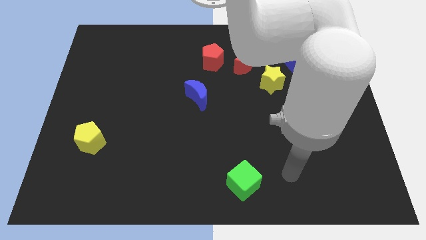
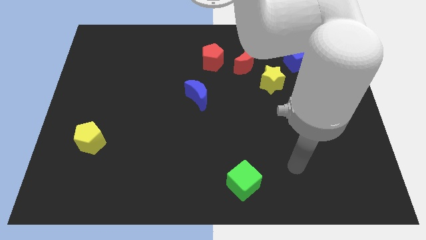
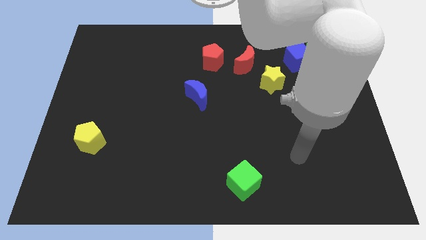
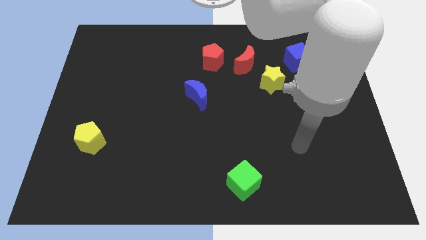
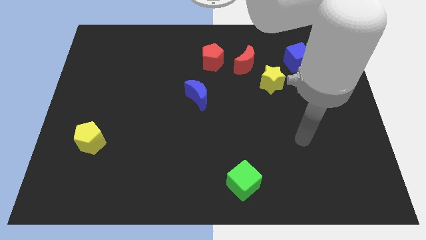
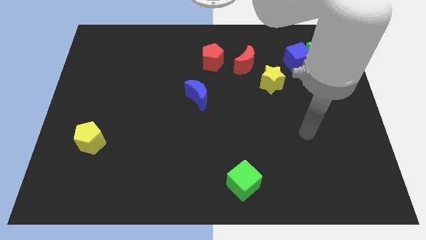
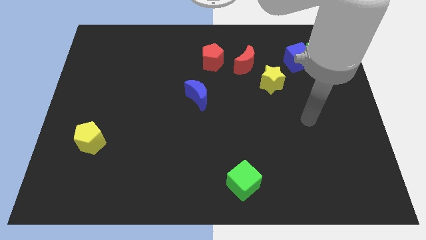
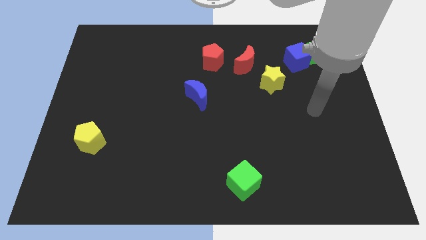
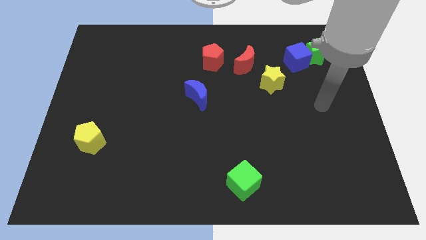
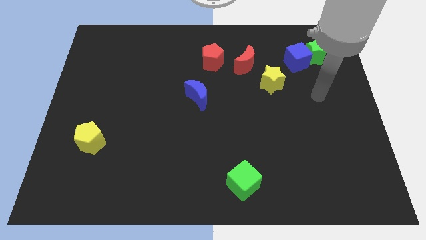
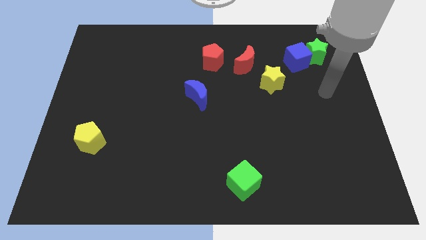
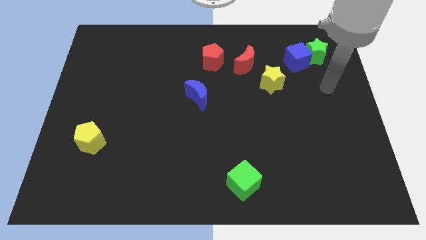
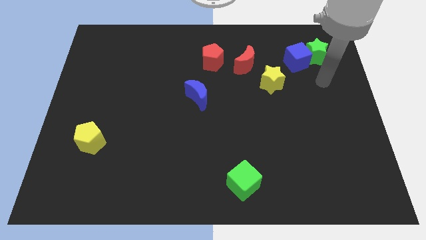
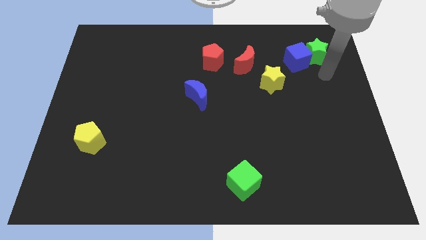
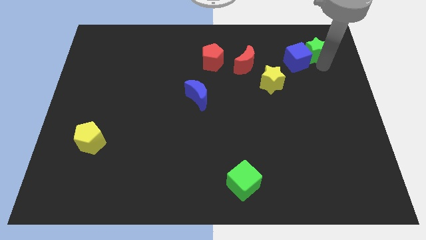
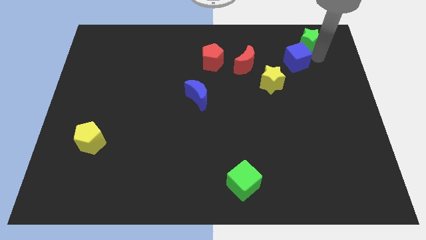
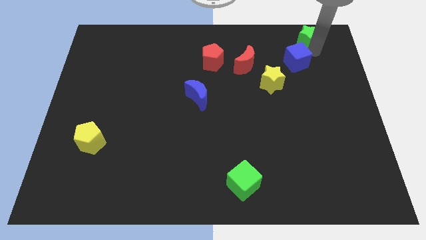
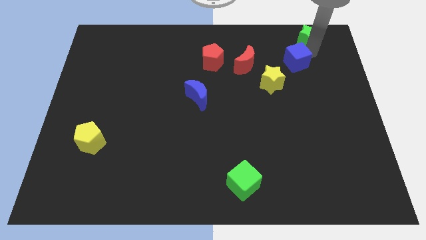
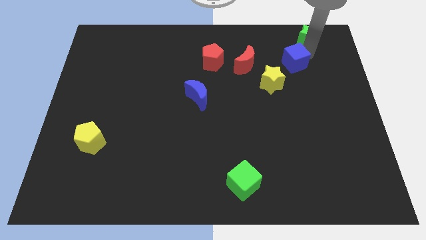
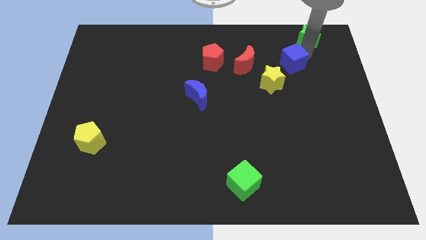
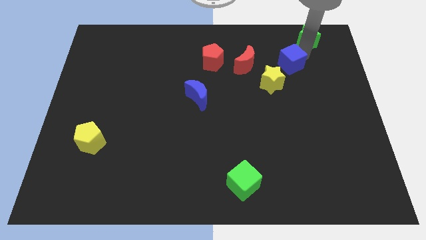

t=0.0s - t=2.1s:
separate the blue cube from the green star

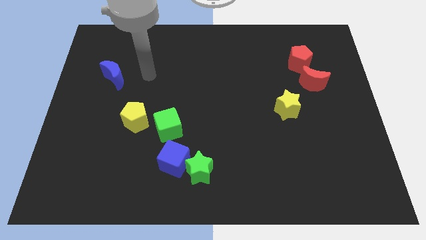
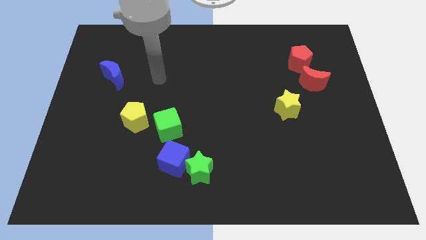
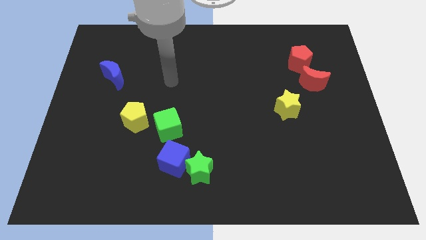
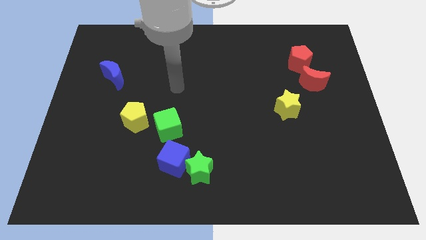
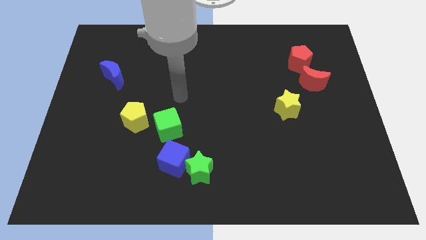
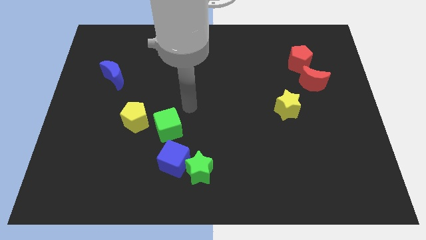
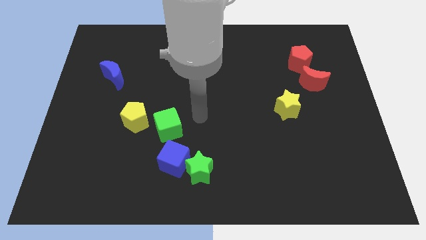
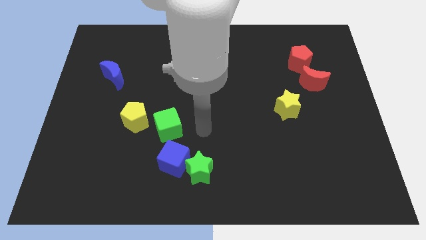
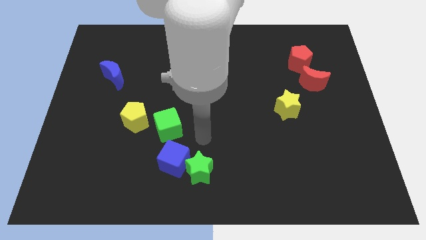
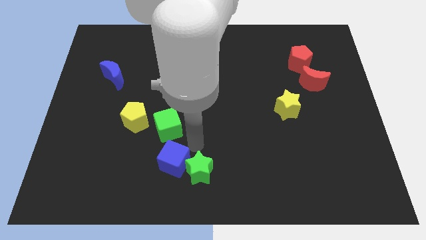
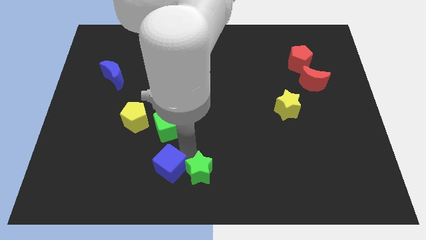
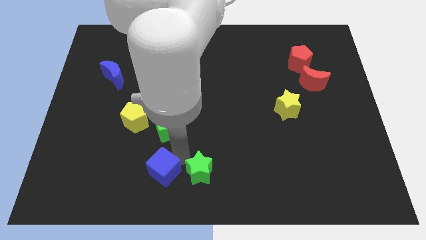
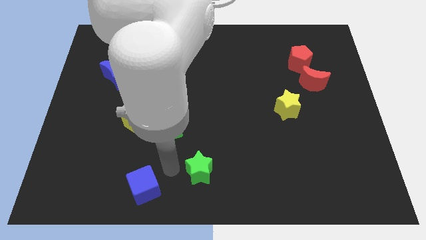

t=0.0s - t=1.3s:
move the green star away from the blue cube

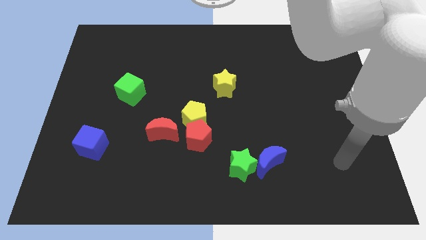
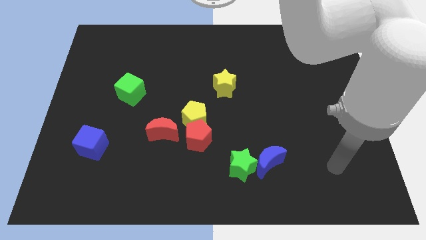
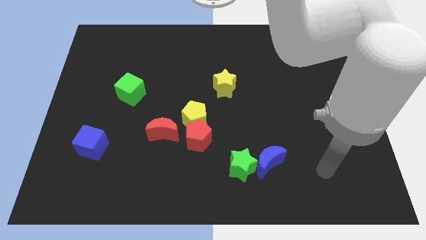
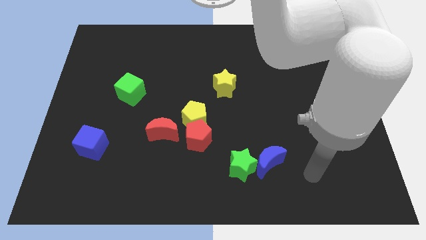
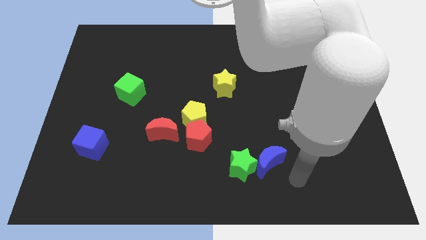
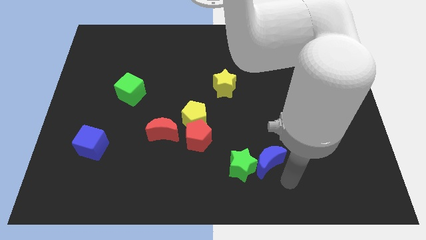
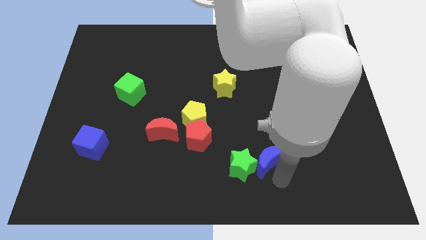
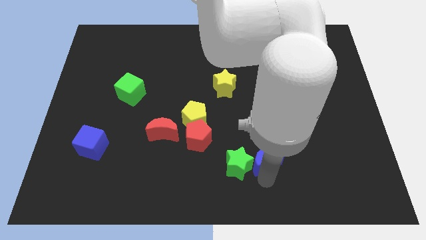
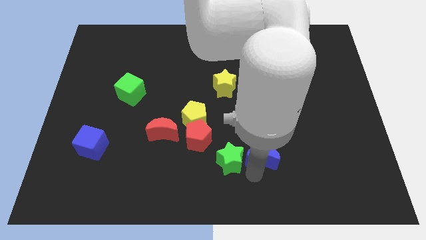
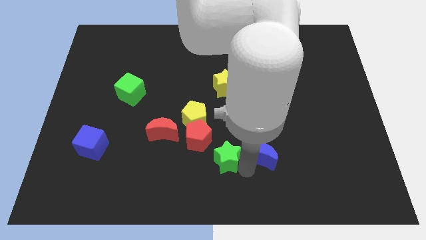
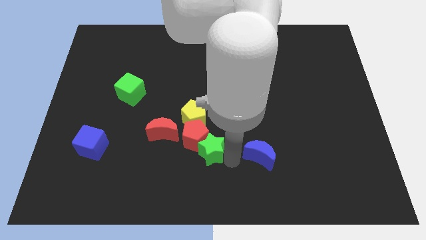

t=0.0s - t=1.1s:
separate the blue moon from the green star

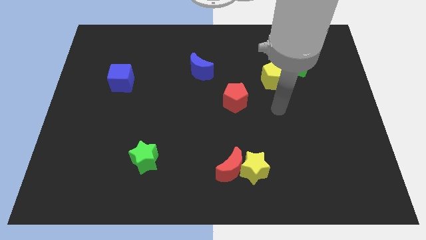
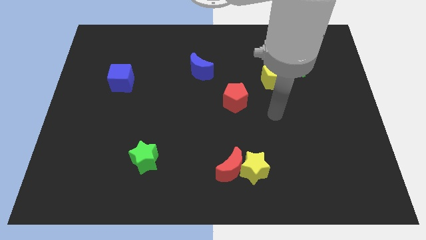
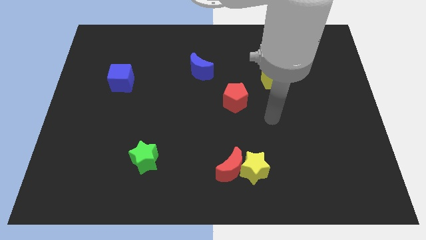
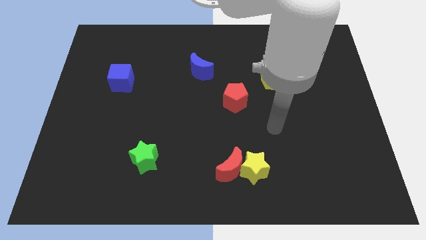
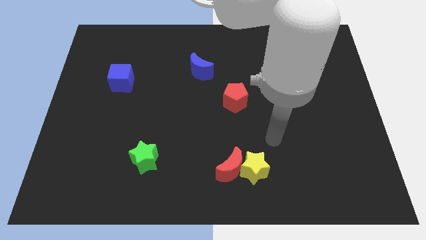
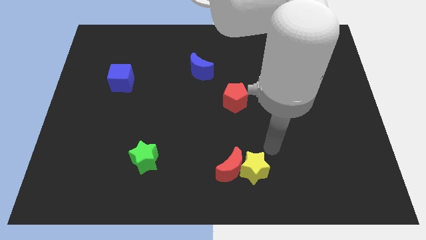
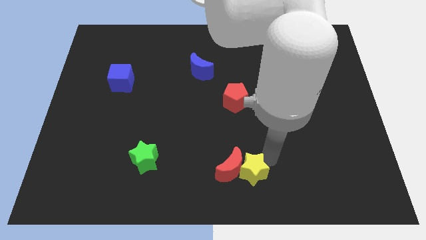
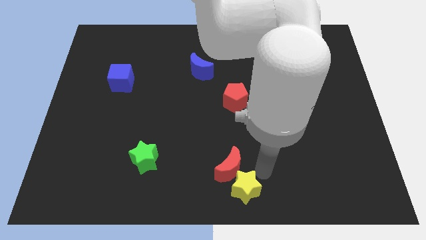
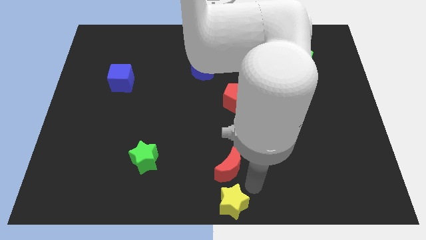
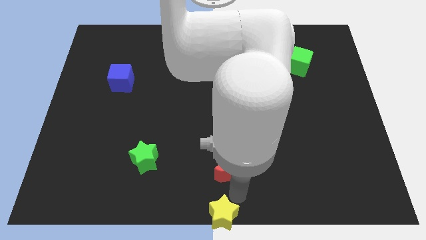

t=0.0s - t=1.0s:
move the red moon away from the yellow star

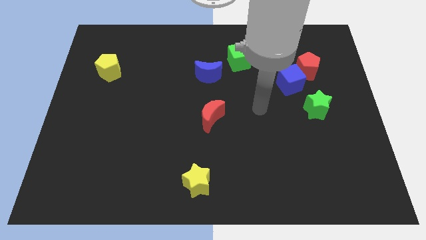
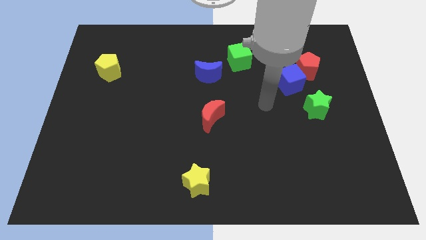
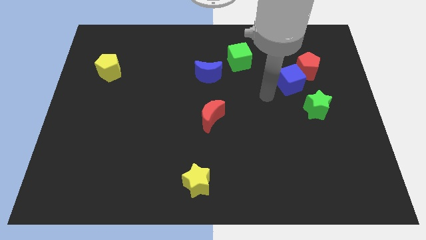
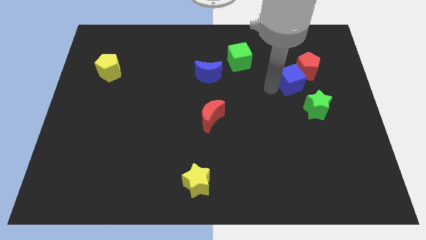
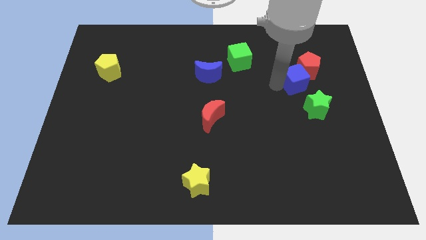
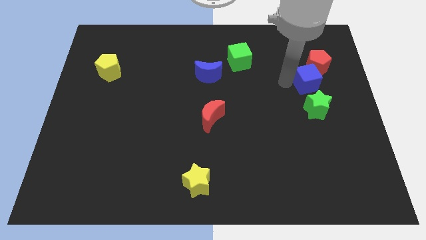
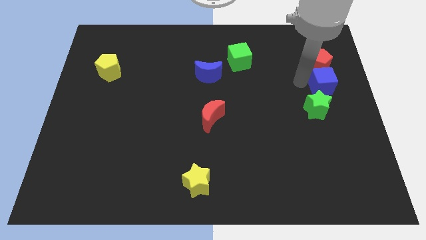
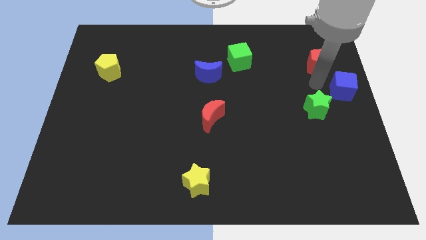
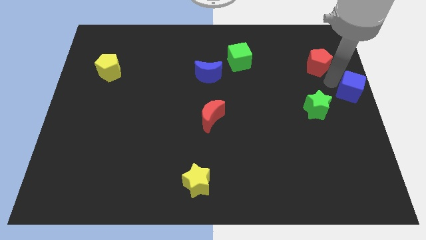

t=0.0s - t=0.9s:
move the red pentagon away from the blue cube

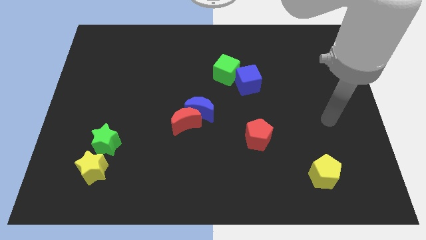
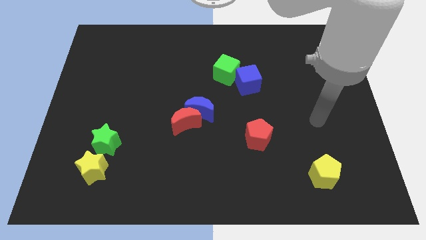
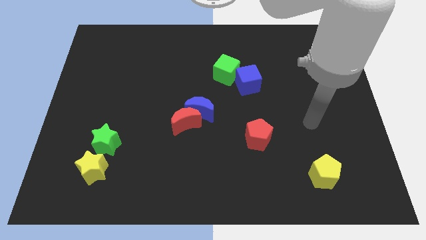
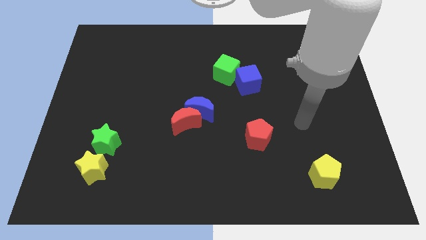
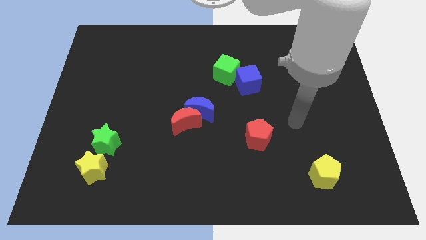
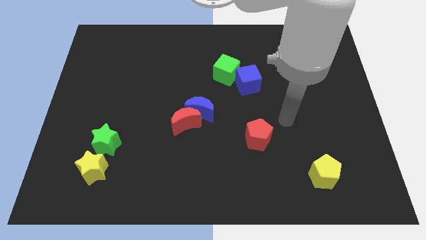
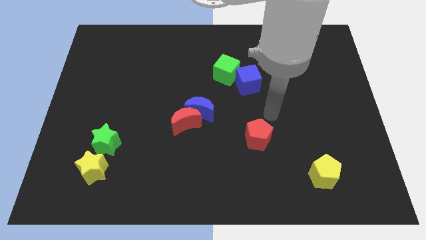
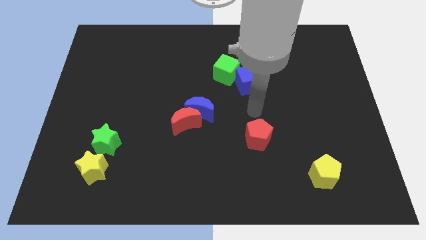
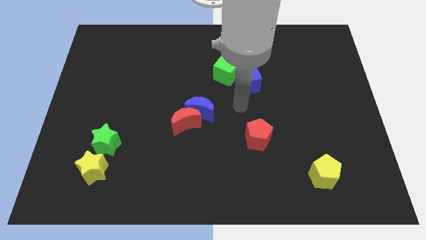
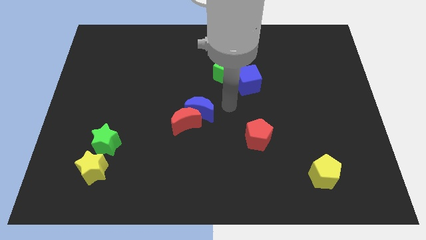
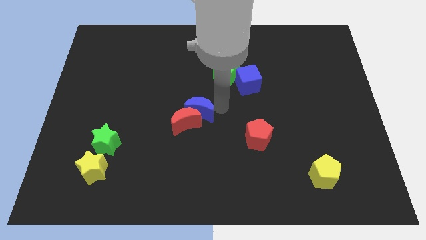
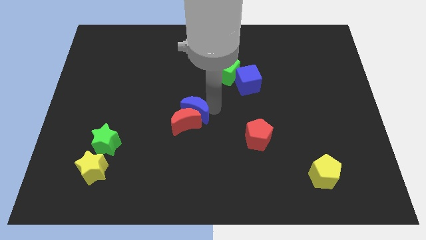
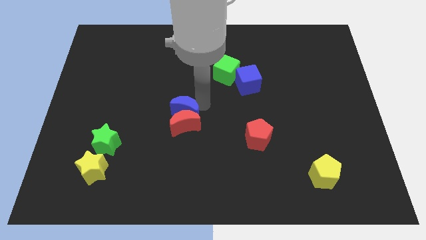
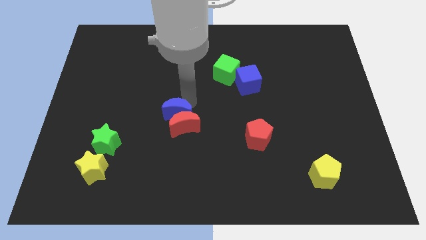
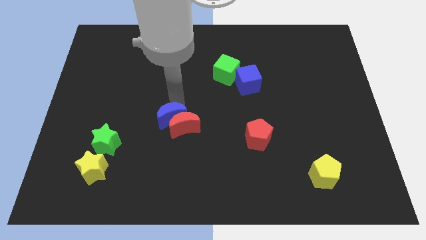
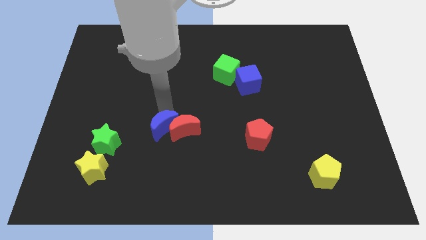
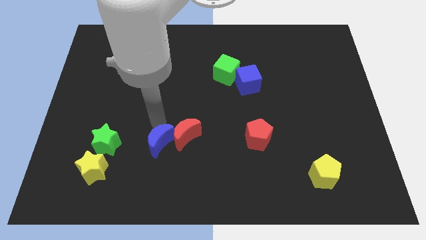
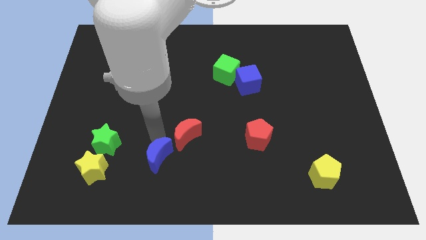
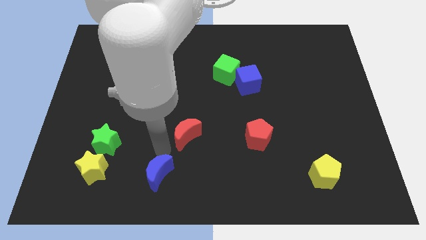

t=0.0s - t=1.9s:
pull the red moon apart from the blue moon

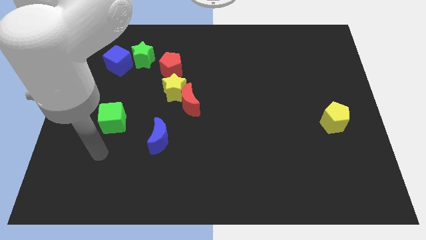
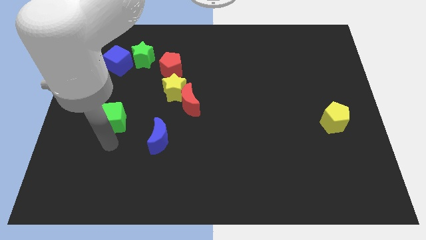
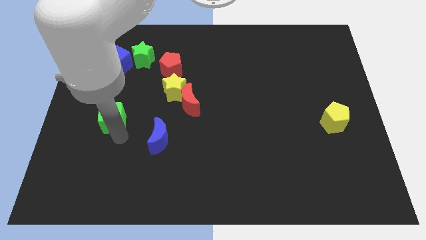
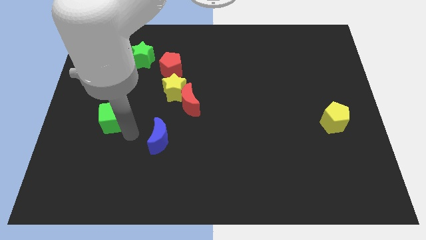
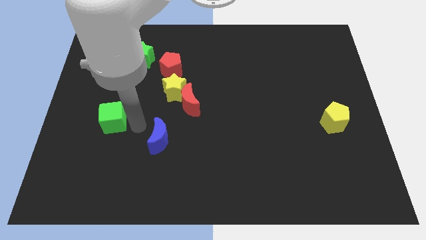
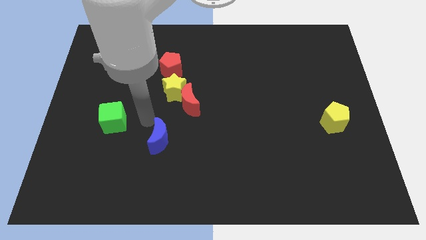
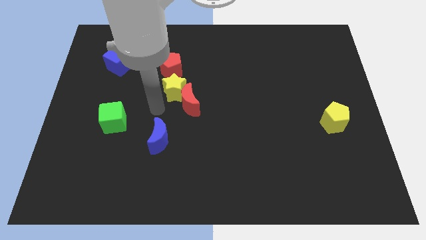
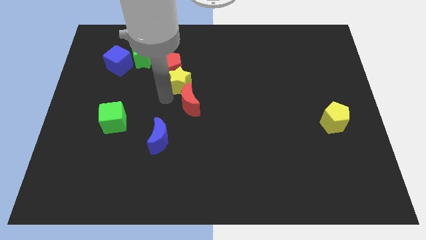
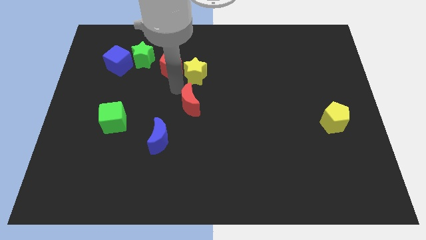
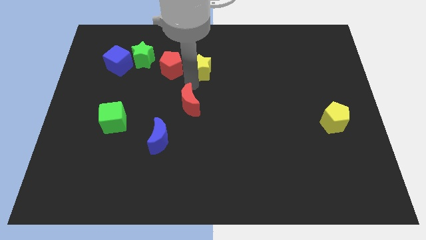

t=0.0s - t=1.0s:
separate the red moon from the yellow star
